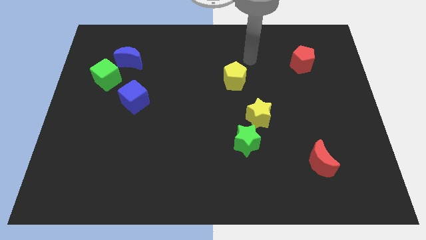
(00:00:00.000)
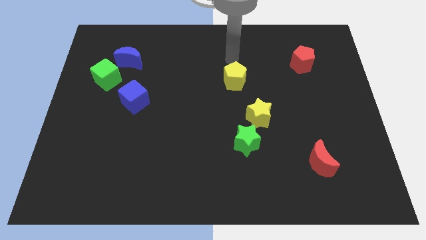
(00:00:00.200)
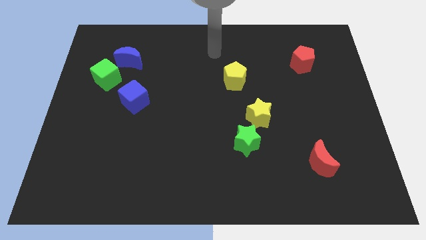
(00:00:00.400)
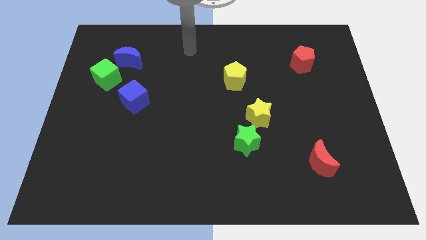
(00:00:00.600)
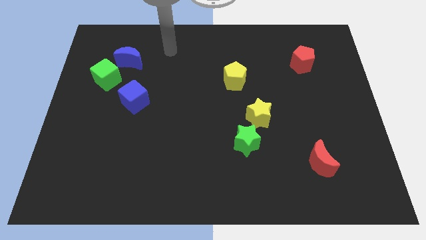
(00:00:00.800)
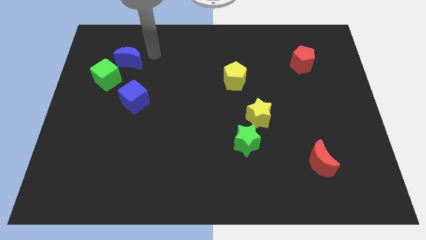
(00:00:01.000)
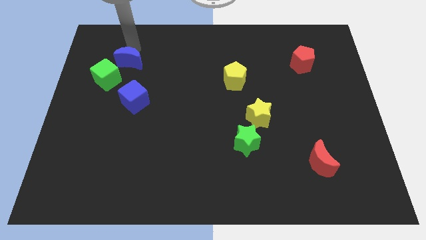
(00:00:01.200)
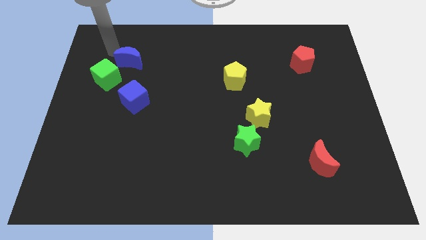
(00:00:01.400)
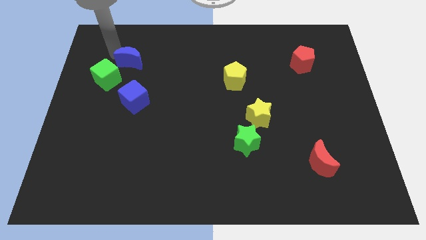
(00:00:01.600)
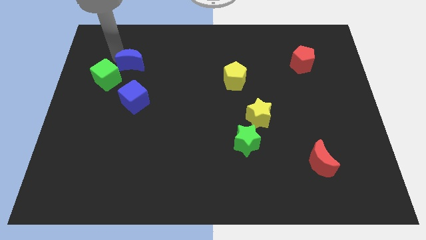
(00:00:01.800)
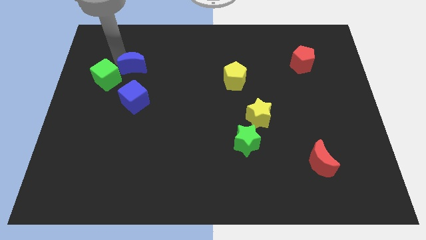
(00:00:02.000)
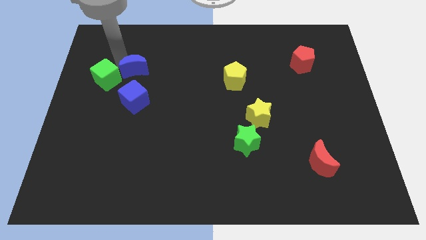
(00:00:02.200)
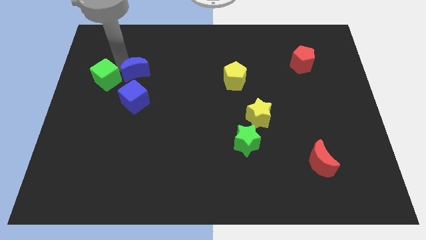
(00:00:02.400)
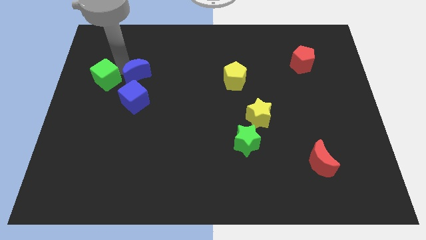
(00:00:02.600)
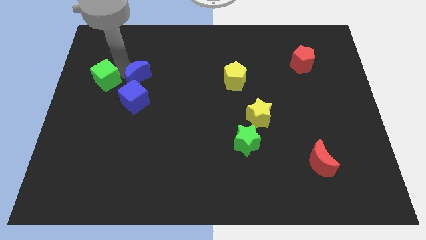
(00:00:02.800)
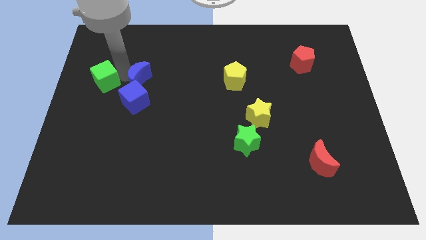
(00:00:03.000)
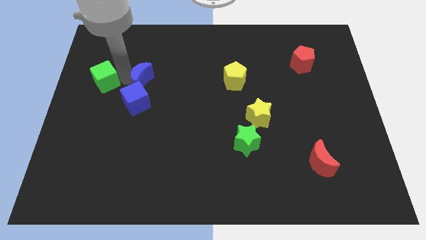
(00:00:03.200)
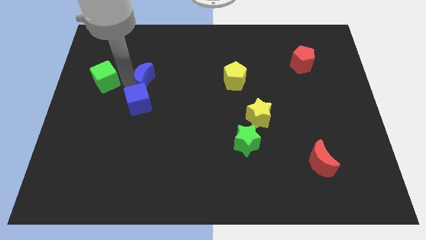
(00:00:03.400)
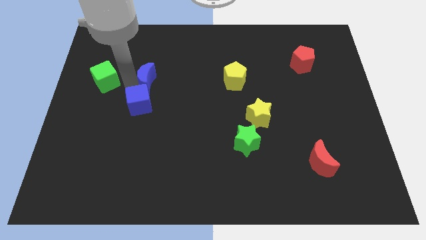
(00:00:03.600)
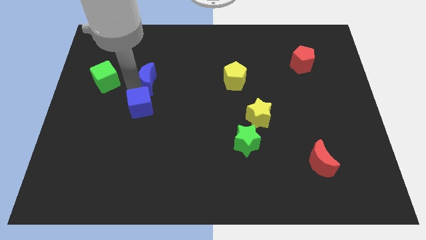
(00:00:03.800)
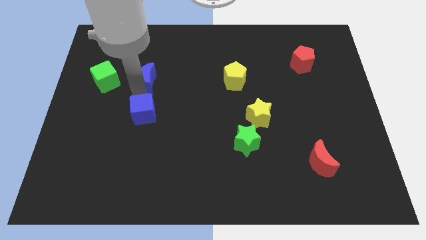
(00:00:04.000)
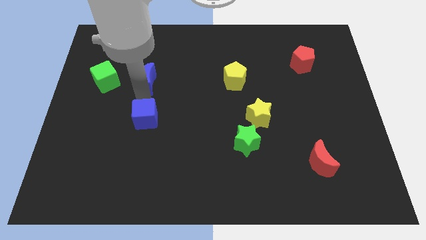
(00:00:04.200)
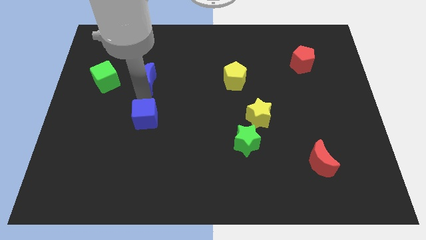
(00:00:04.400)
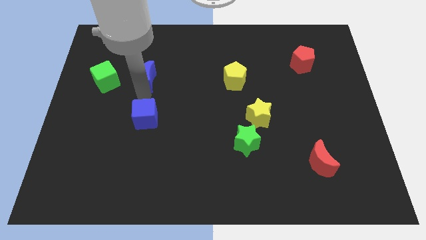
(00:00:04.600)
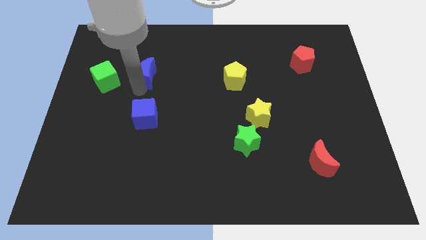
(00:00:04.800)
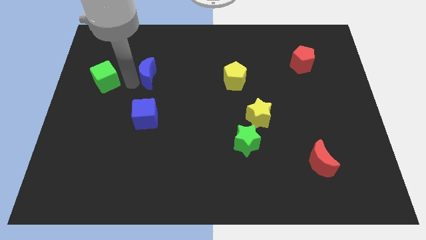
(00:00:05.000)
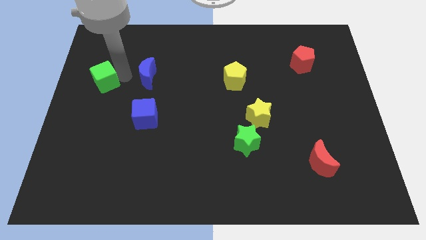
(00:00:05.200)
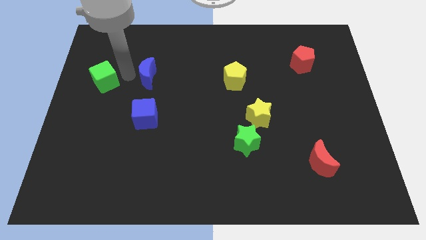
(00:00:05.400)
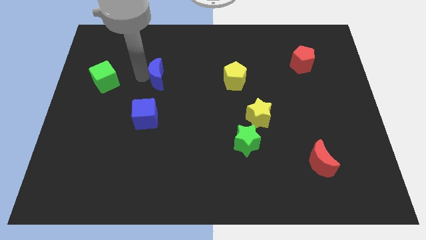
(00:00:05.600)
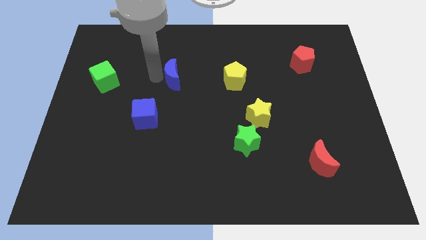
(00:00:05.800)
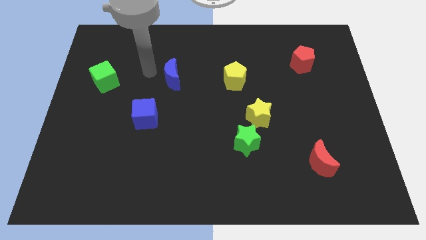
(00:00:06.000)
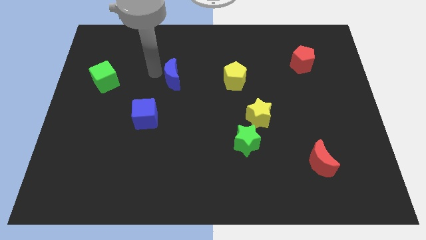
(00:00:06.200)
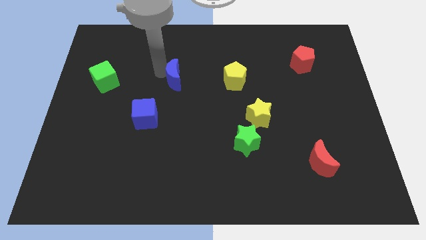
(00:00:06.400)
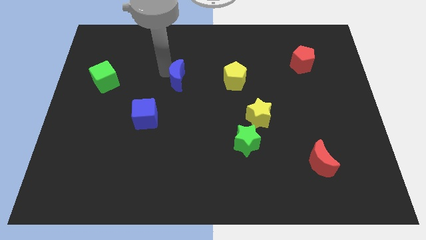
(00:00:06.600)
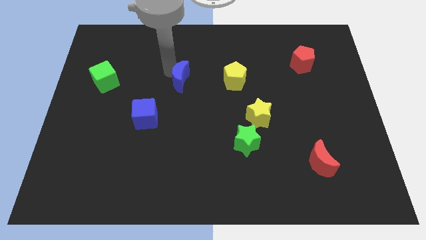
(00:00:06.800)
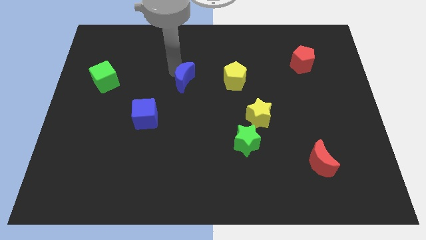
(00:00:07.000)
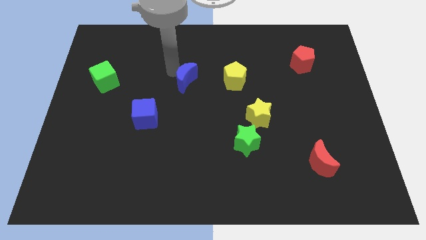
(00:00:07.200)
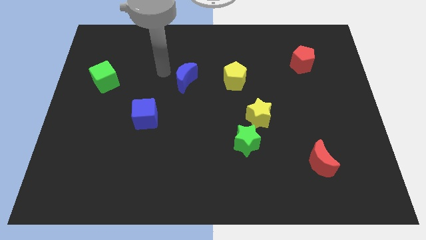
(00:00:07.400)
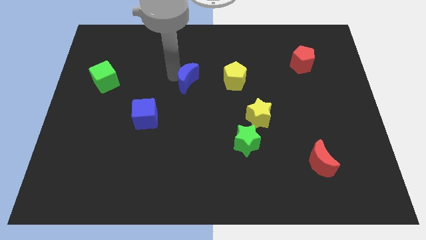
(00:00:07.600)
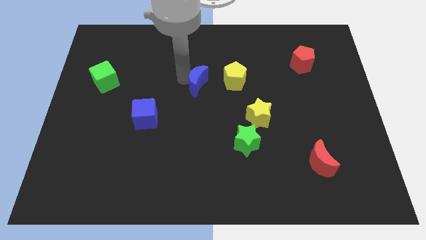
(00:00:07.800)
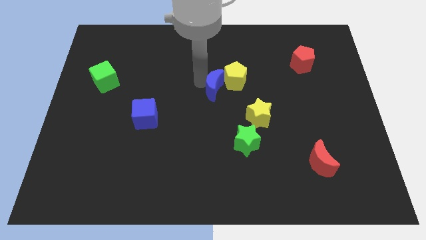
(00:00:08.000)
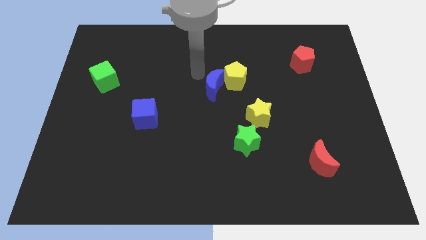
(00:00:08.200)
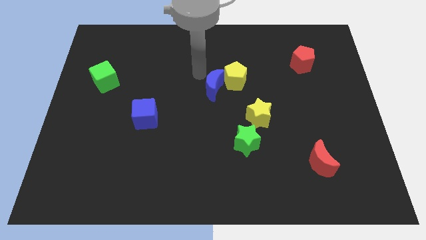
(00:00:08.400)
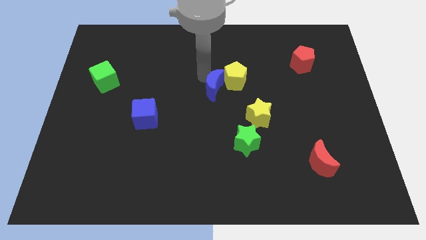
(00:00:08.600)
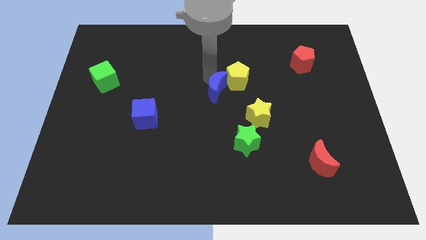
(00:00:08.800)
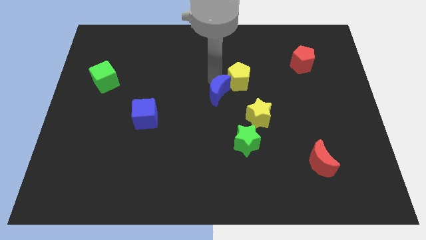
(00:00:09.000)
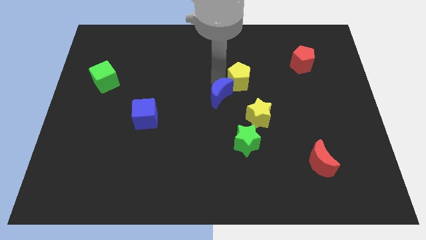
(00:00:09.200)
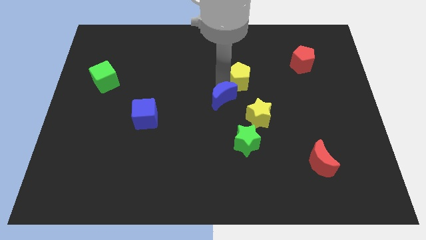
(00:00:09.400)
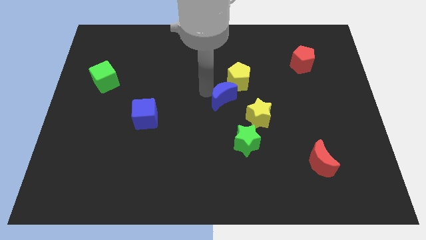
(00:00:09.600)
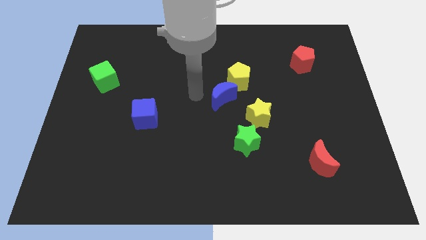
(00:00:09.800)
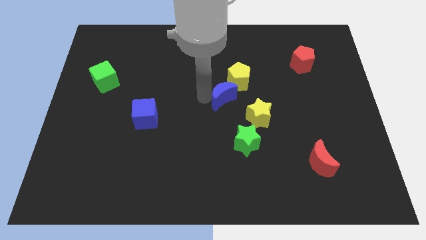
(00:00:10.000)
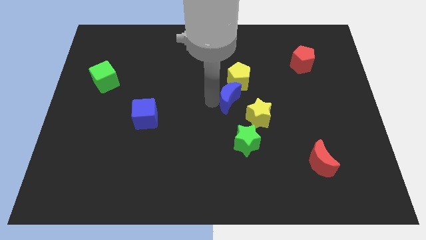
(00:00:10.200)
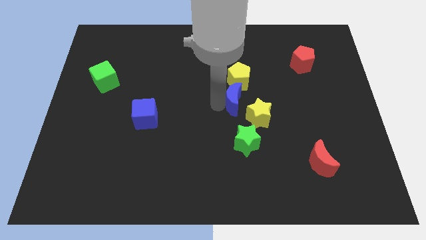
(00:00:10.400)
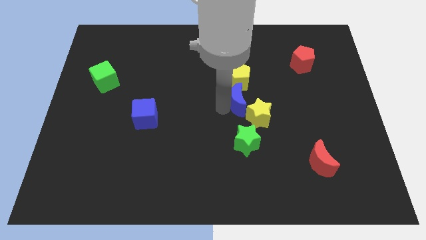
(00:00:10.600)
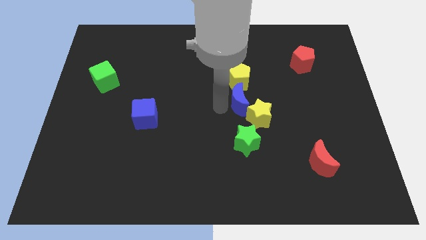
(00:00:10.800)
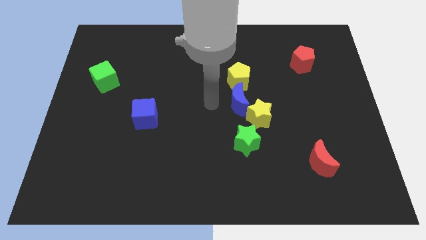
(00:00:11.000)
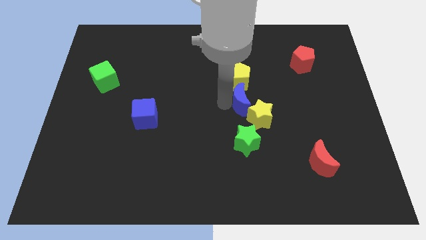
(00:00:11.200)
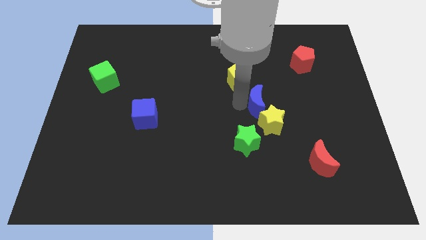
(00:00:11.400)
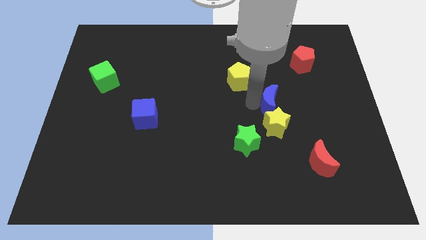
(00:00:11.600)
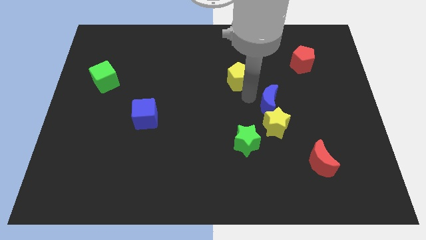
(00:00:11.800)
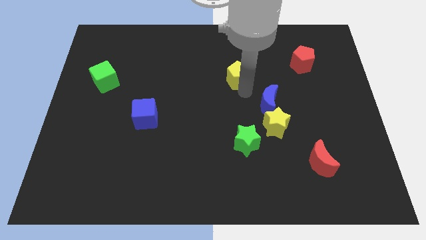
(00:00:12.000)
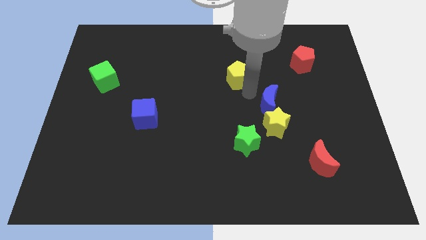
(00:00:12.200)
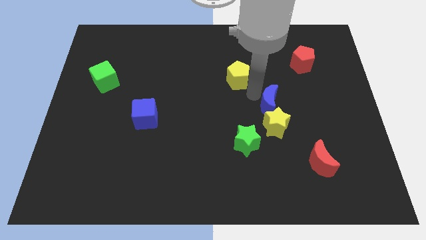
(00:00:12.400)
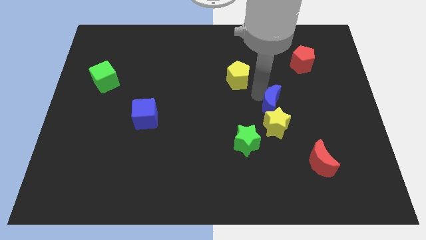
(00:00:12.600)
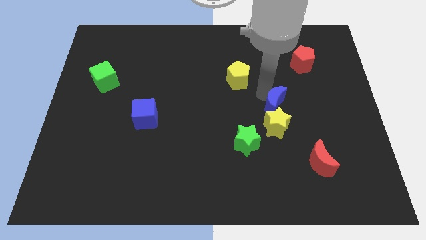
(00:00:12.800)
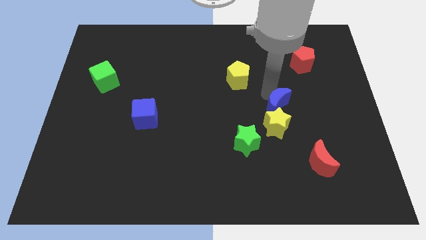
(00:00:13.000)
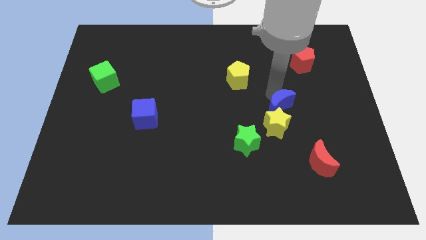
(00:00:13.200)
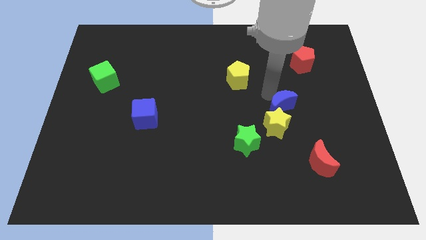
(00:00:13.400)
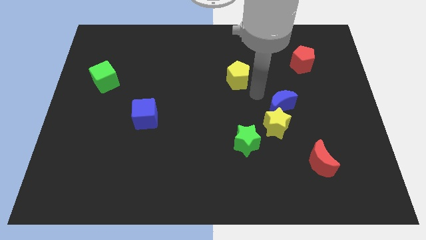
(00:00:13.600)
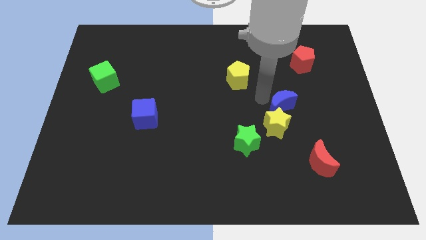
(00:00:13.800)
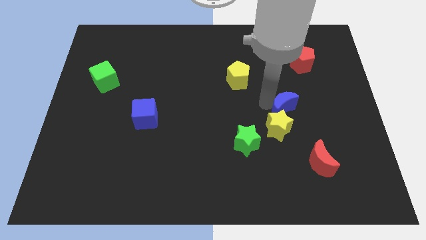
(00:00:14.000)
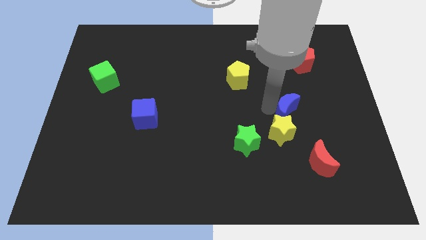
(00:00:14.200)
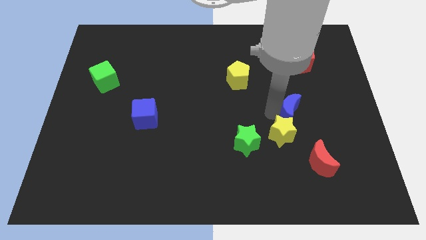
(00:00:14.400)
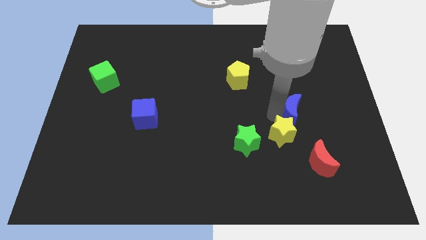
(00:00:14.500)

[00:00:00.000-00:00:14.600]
slide the blue moon to the top side of the red moon
